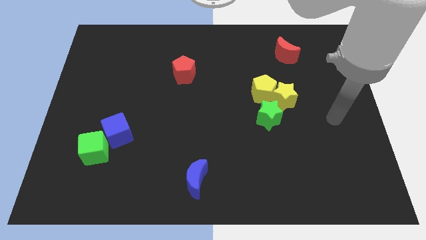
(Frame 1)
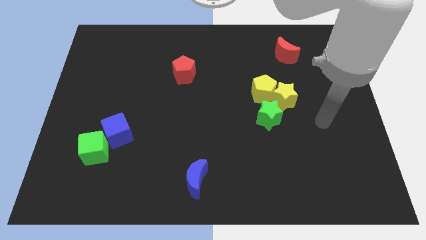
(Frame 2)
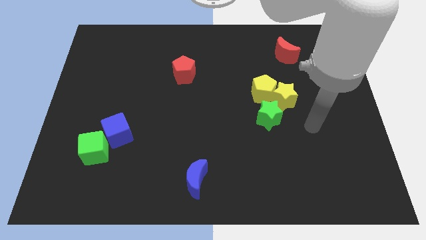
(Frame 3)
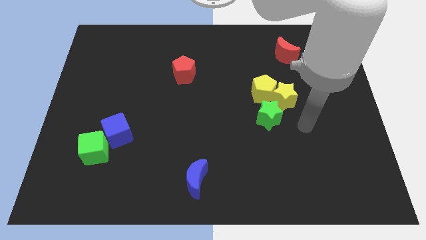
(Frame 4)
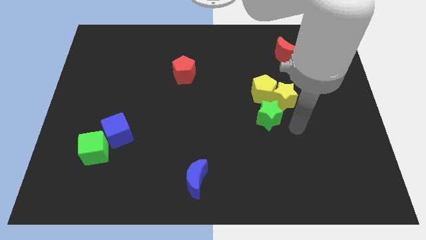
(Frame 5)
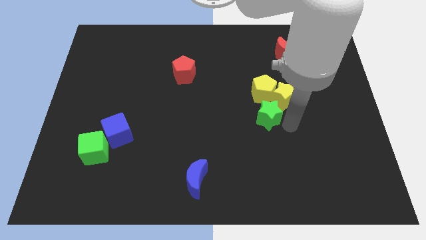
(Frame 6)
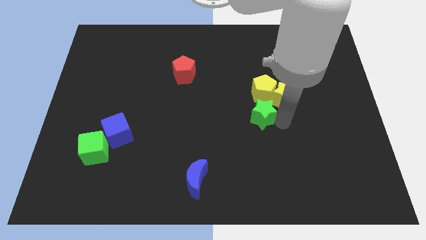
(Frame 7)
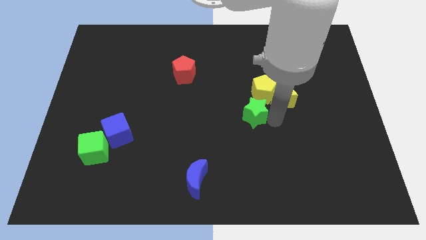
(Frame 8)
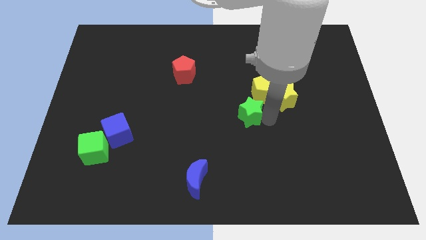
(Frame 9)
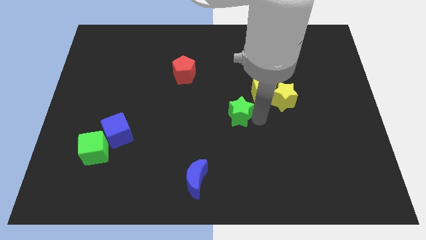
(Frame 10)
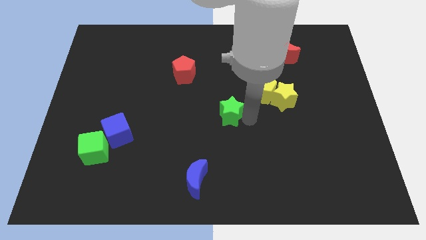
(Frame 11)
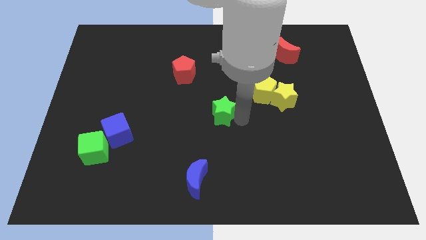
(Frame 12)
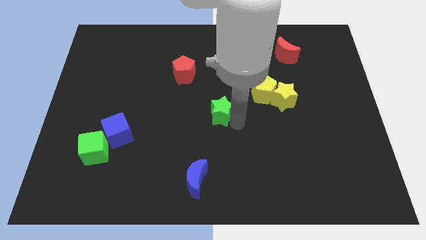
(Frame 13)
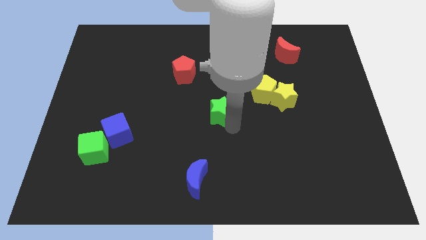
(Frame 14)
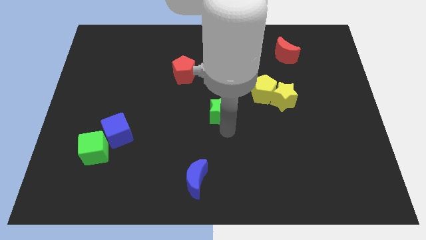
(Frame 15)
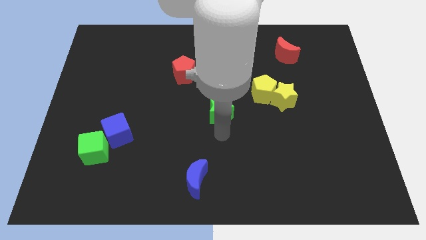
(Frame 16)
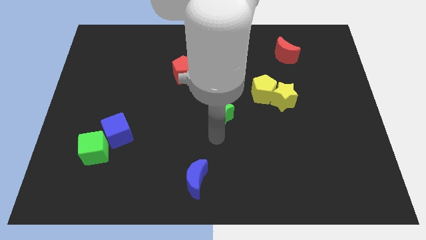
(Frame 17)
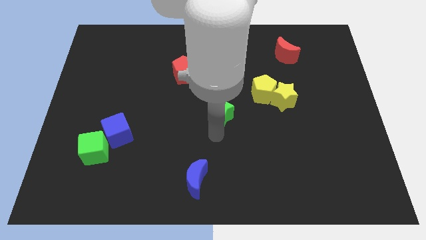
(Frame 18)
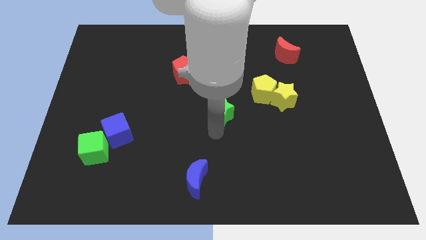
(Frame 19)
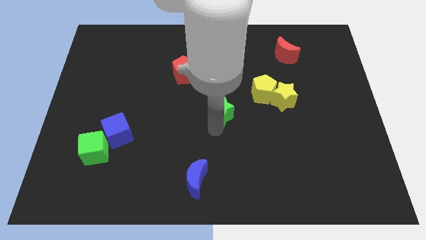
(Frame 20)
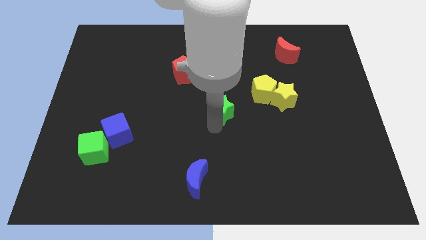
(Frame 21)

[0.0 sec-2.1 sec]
push the green star diagonally upwards and left a bit

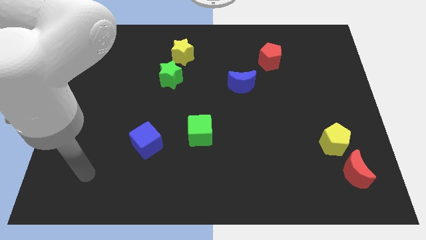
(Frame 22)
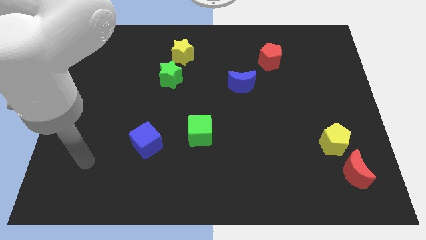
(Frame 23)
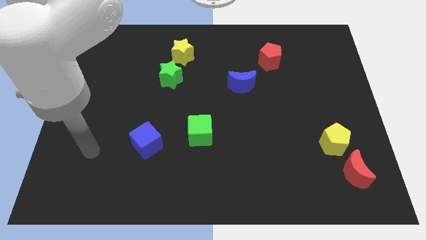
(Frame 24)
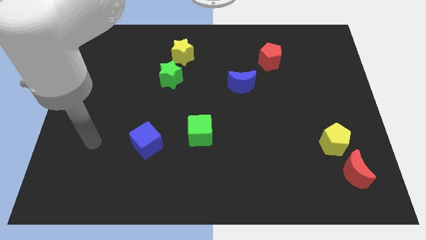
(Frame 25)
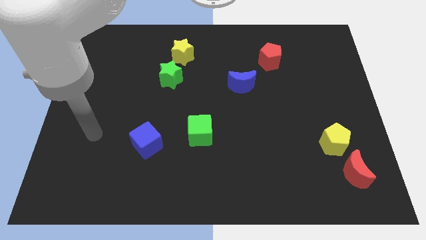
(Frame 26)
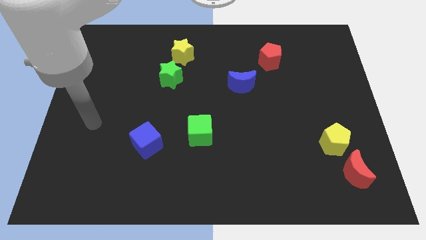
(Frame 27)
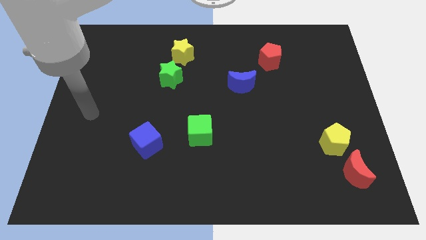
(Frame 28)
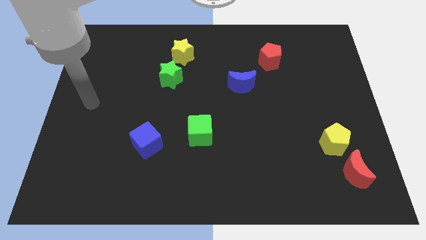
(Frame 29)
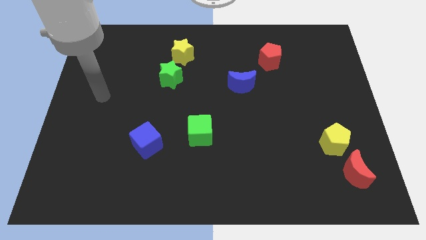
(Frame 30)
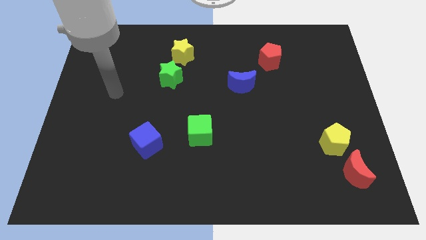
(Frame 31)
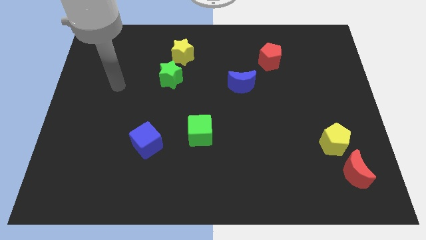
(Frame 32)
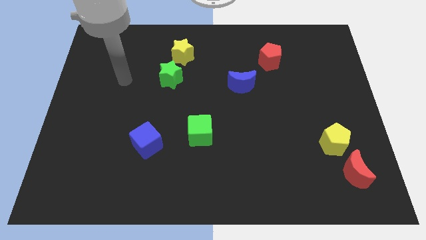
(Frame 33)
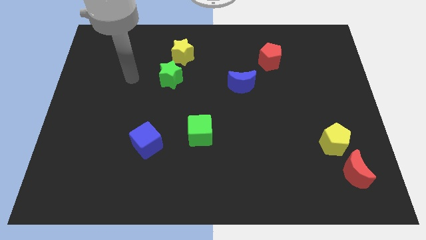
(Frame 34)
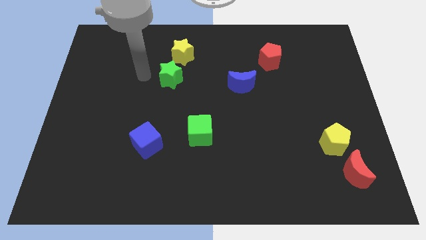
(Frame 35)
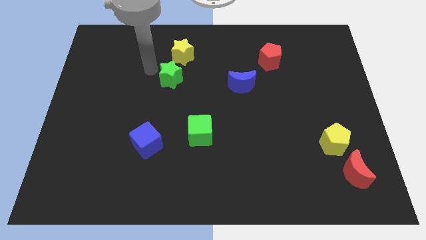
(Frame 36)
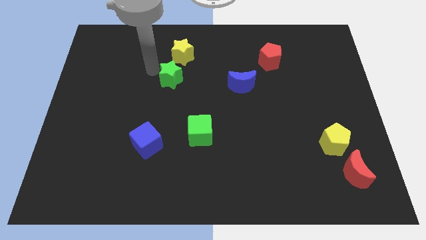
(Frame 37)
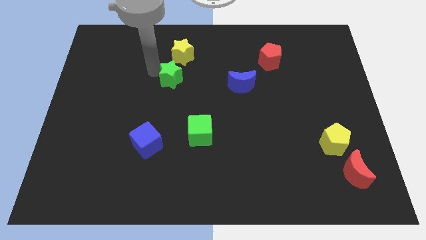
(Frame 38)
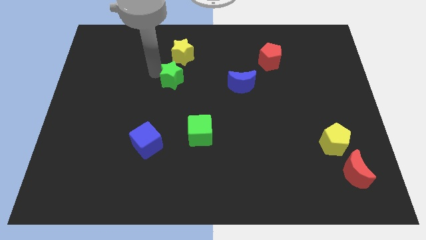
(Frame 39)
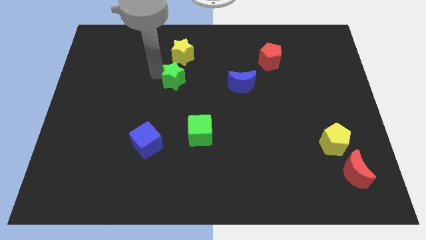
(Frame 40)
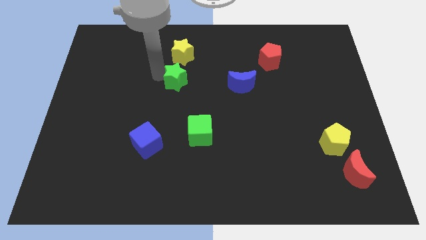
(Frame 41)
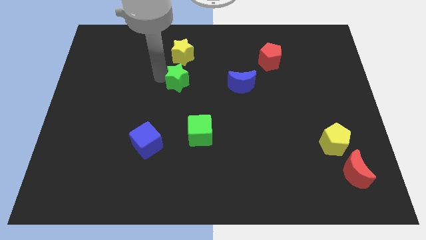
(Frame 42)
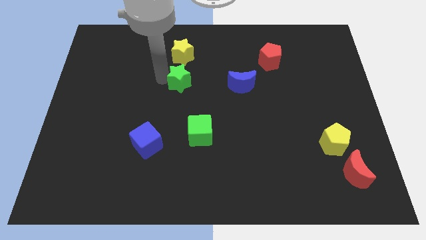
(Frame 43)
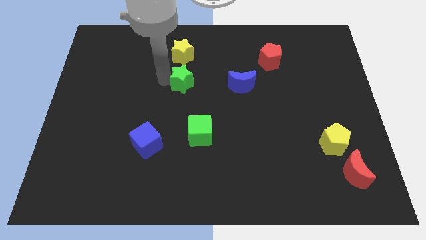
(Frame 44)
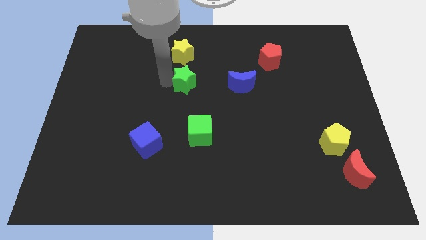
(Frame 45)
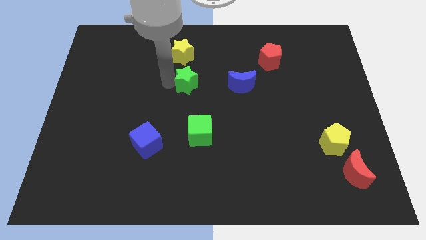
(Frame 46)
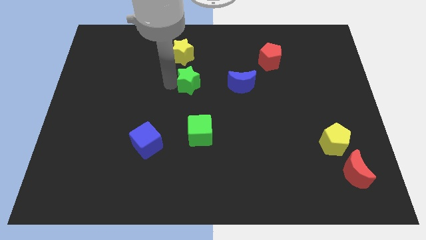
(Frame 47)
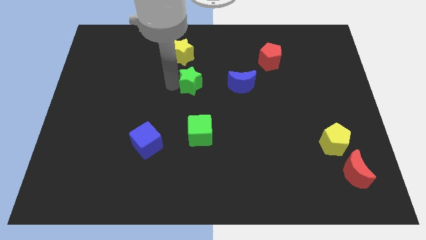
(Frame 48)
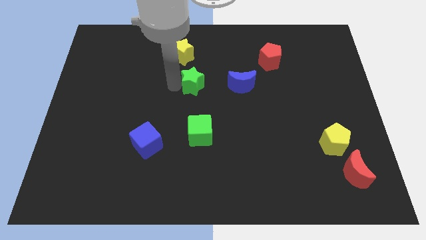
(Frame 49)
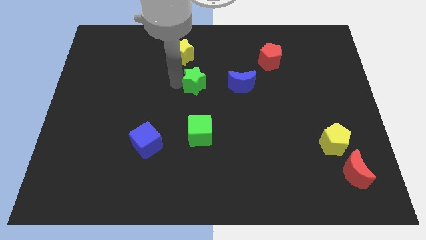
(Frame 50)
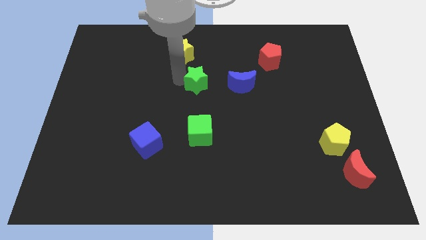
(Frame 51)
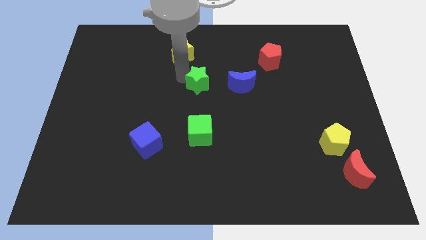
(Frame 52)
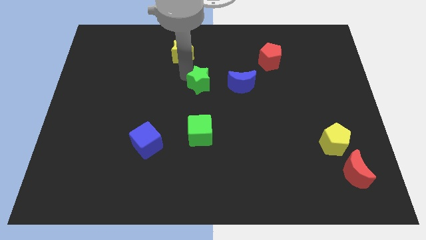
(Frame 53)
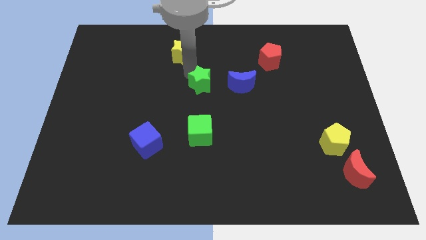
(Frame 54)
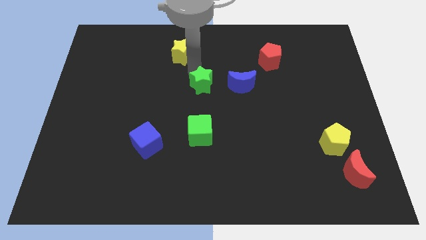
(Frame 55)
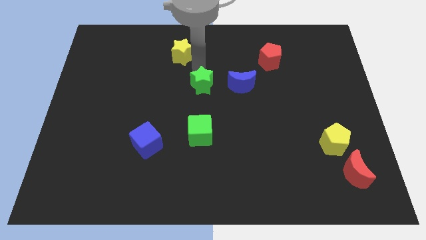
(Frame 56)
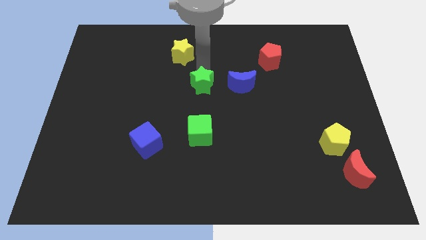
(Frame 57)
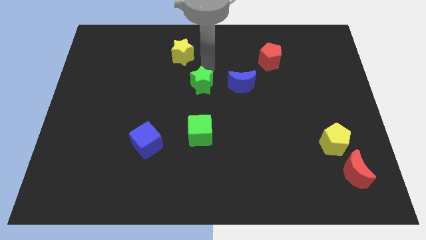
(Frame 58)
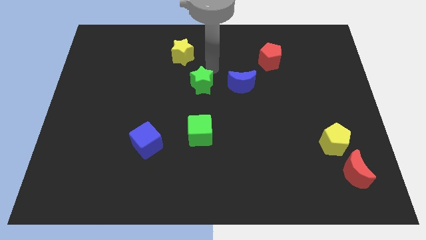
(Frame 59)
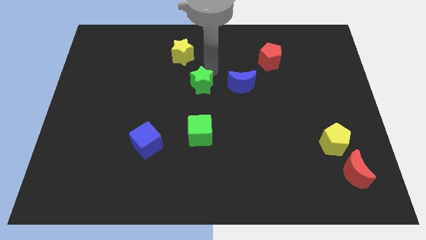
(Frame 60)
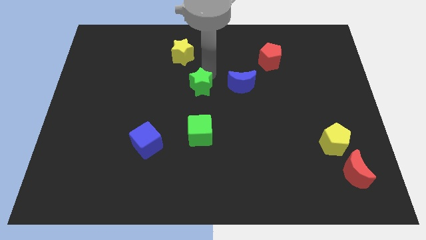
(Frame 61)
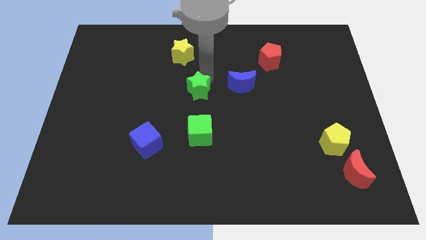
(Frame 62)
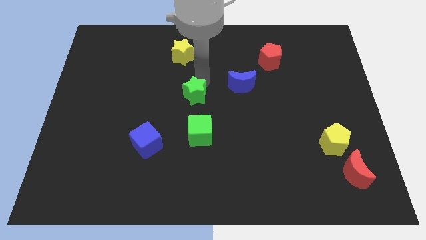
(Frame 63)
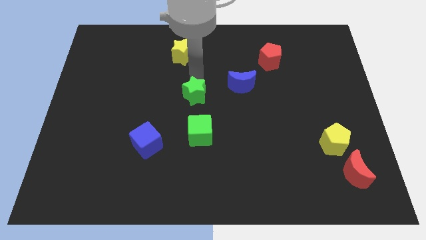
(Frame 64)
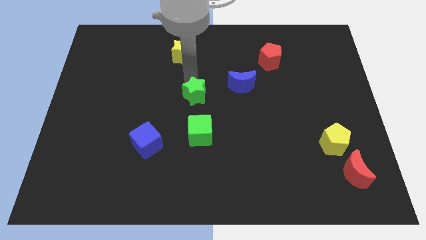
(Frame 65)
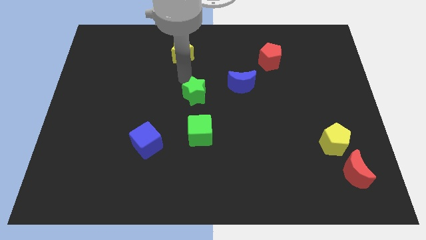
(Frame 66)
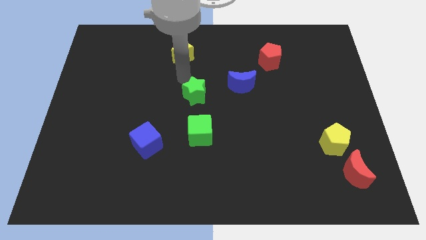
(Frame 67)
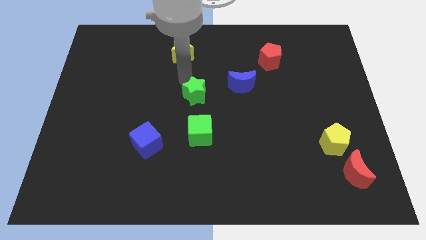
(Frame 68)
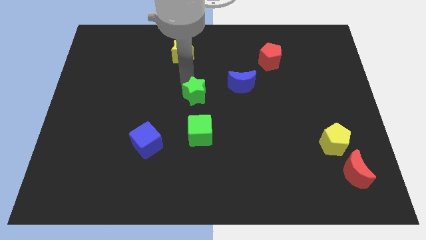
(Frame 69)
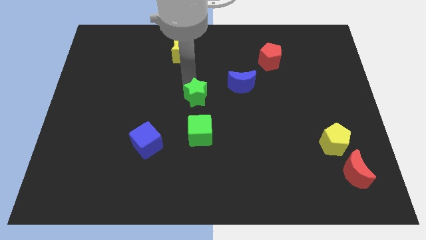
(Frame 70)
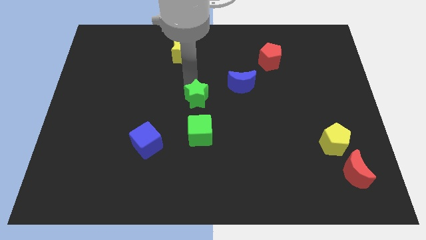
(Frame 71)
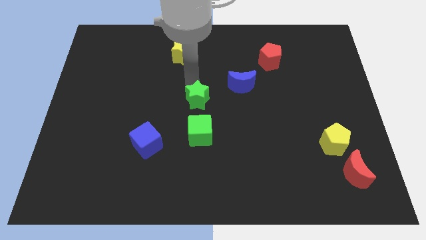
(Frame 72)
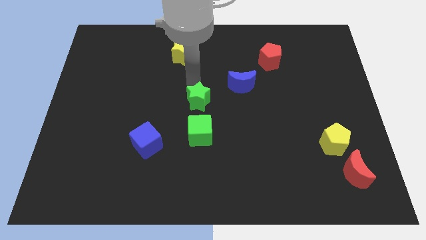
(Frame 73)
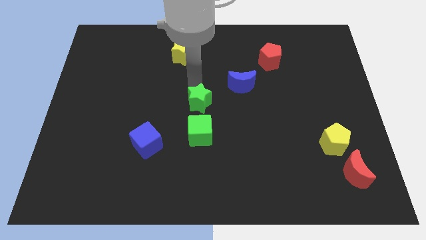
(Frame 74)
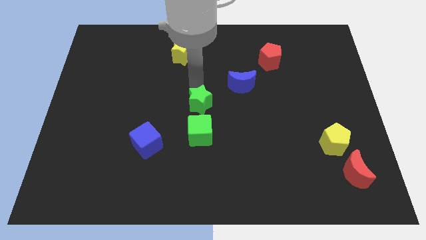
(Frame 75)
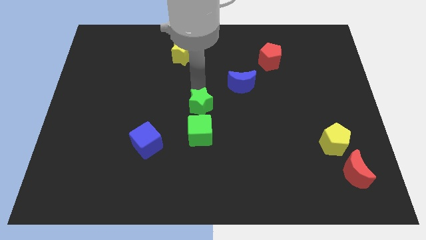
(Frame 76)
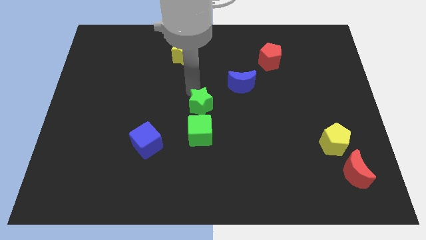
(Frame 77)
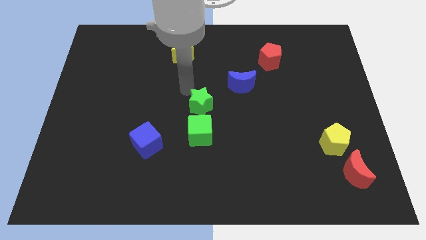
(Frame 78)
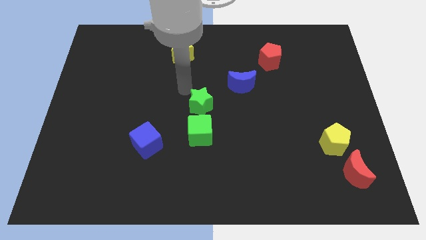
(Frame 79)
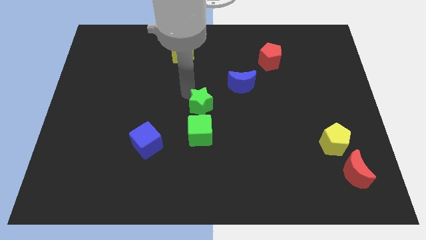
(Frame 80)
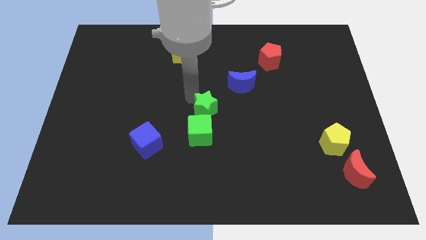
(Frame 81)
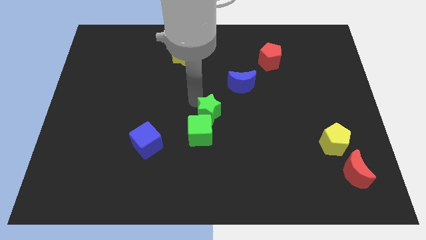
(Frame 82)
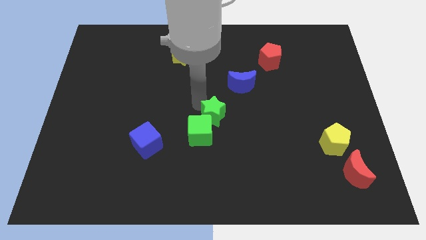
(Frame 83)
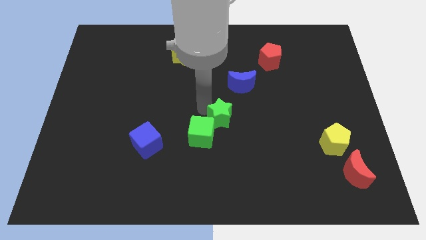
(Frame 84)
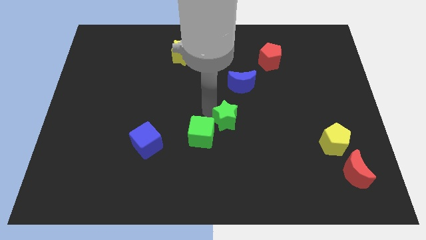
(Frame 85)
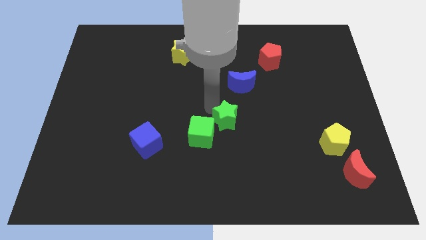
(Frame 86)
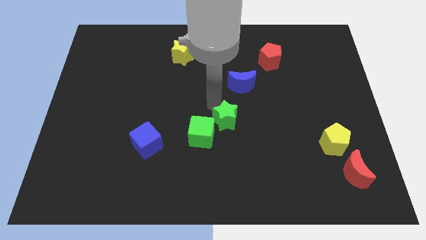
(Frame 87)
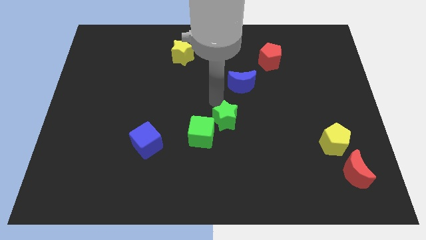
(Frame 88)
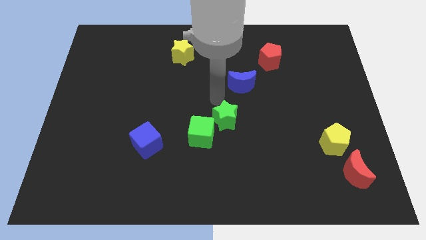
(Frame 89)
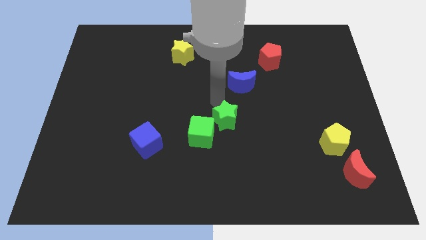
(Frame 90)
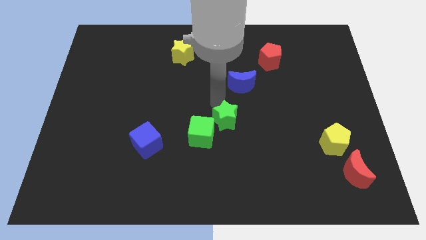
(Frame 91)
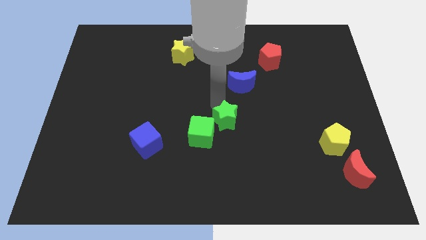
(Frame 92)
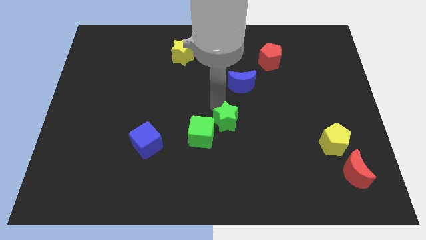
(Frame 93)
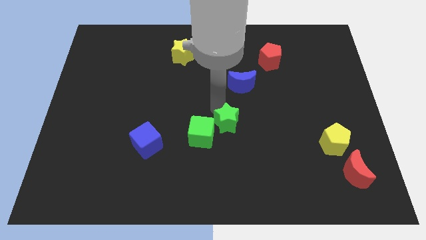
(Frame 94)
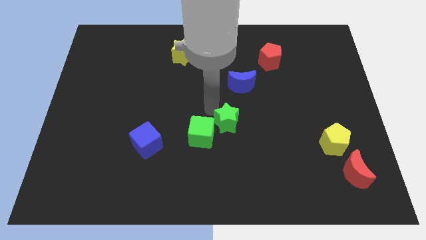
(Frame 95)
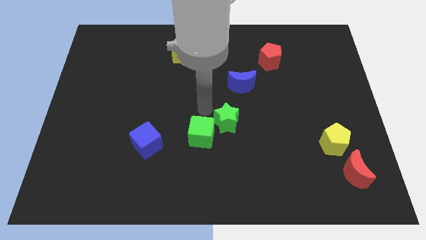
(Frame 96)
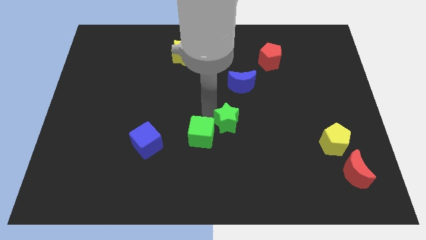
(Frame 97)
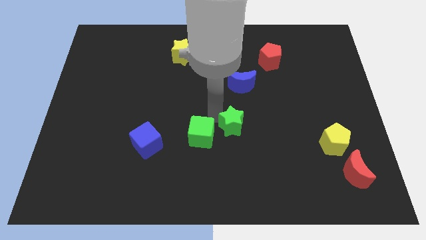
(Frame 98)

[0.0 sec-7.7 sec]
slide the green star diagonally downwards and to the right
